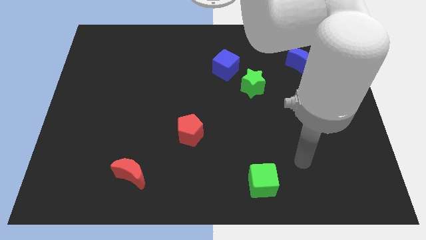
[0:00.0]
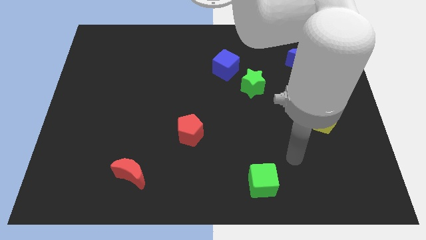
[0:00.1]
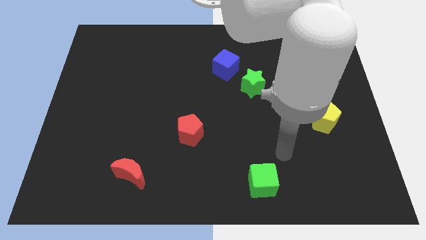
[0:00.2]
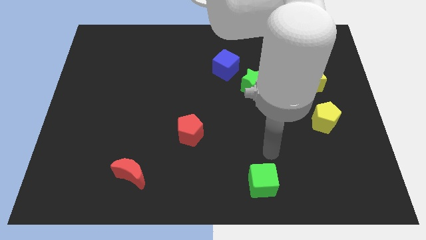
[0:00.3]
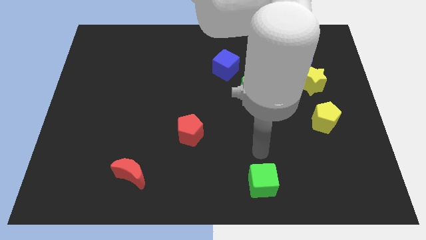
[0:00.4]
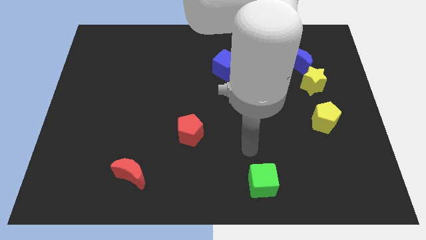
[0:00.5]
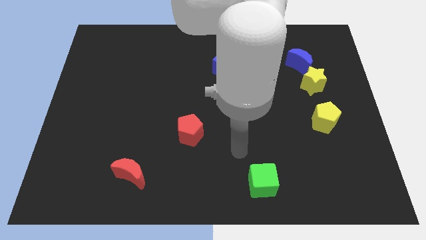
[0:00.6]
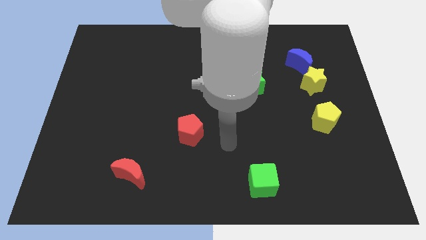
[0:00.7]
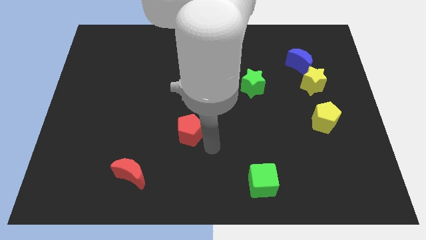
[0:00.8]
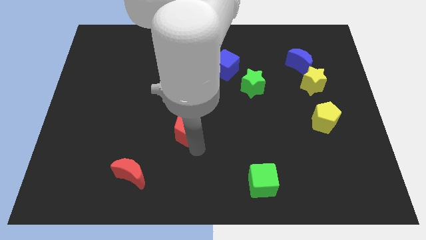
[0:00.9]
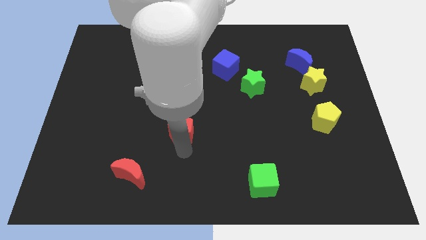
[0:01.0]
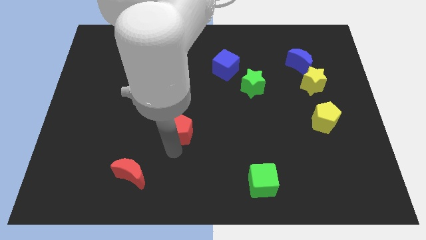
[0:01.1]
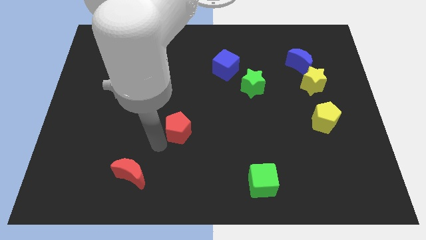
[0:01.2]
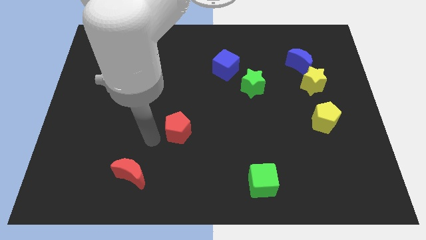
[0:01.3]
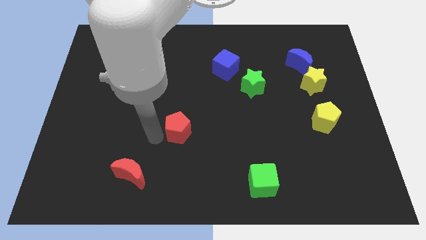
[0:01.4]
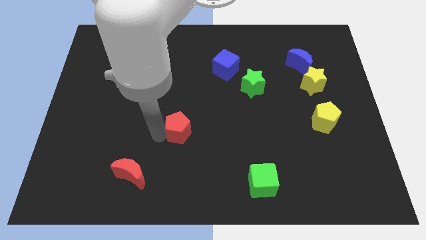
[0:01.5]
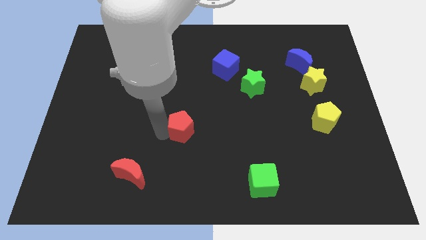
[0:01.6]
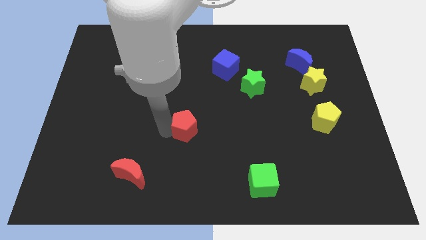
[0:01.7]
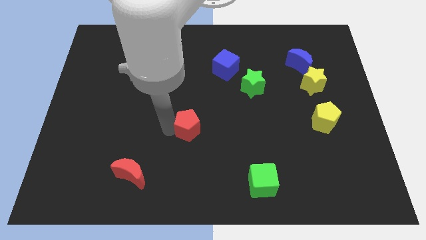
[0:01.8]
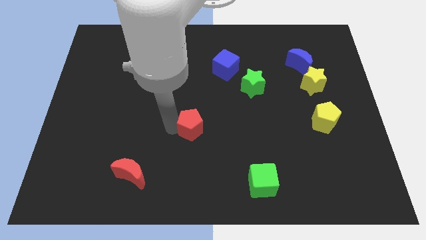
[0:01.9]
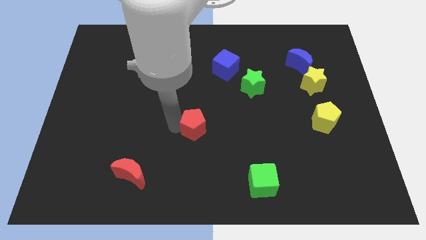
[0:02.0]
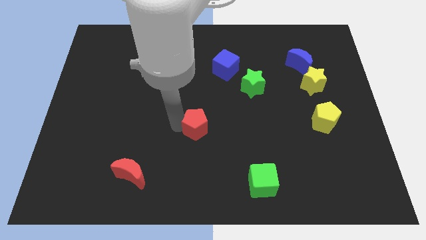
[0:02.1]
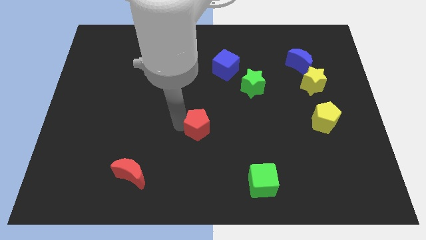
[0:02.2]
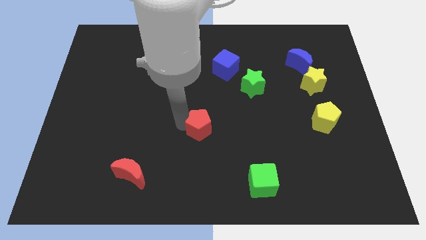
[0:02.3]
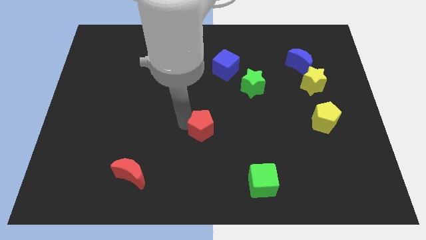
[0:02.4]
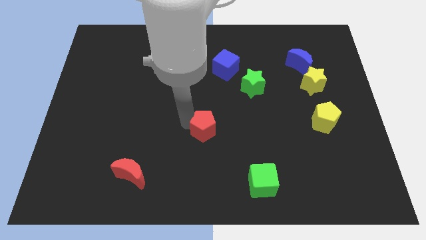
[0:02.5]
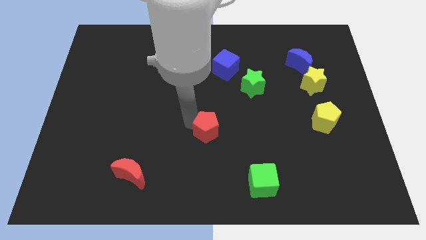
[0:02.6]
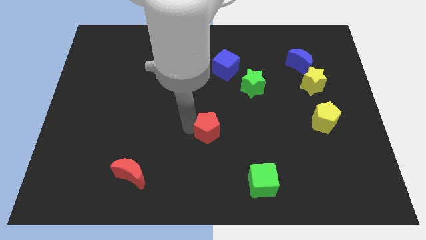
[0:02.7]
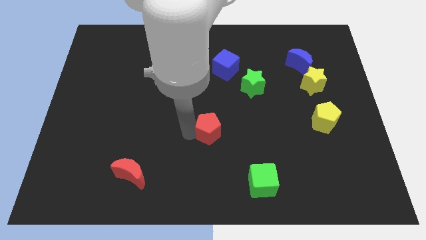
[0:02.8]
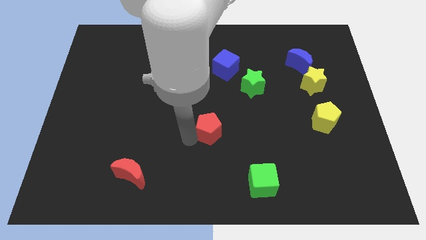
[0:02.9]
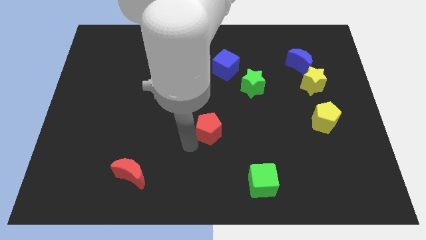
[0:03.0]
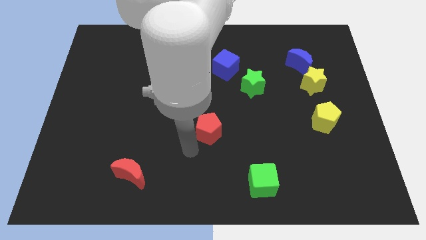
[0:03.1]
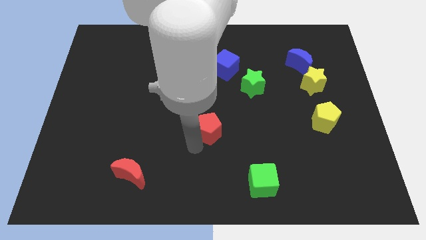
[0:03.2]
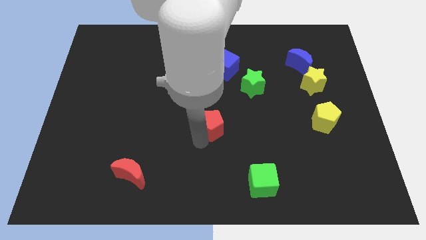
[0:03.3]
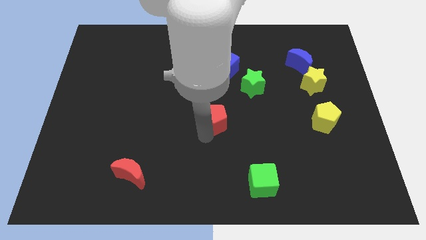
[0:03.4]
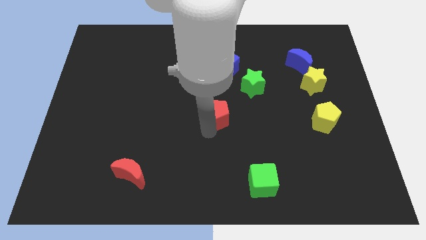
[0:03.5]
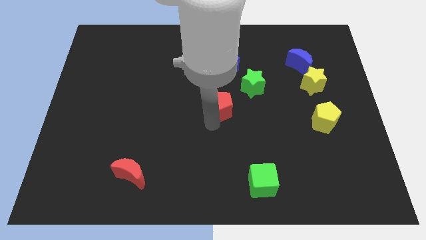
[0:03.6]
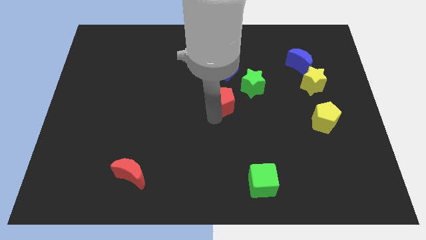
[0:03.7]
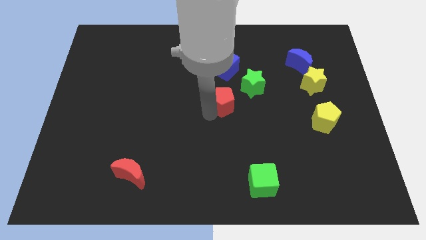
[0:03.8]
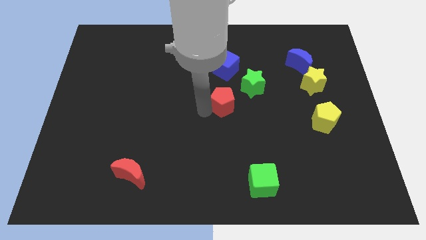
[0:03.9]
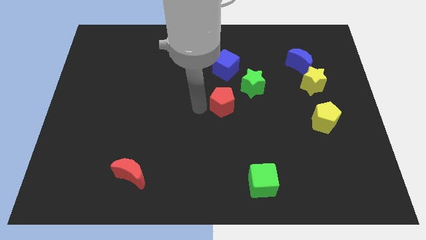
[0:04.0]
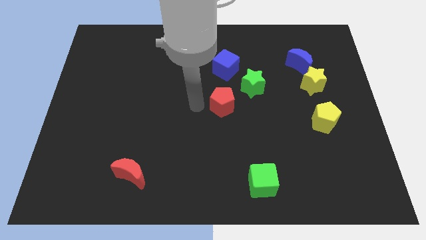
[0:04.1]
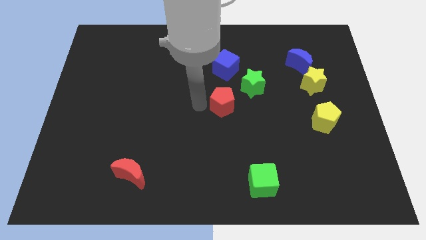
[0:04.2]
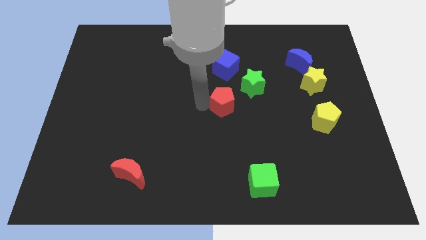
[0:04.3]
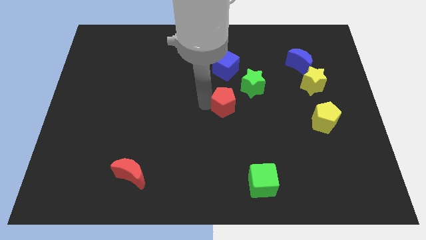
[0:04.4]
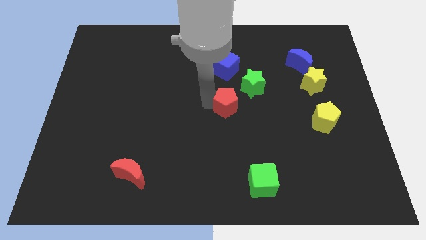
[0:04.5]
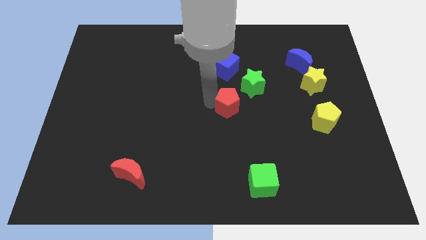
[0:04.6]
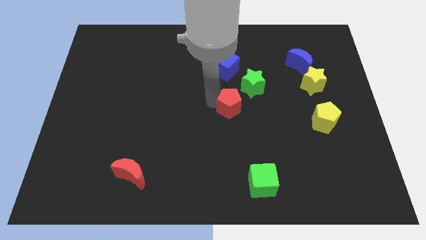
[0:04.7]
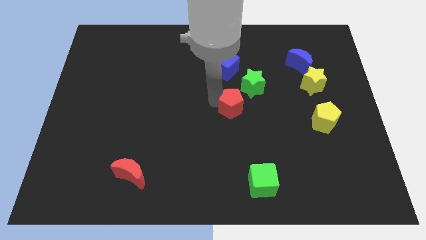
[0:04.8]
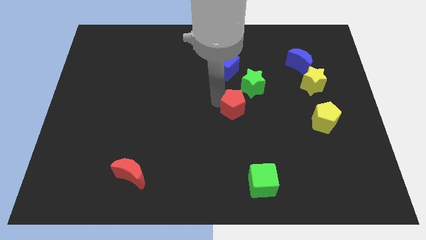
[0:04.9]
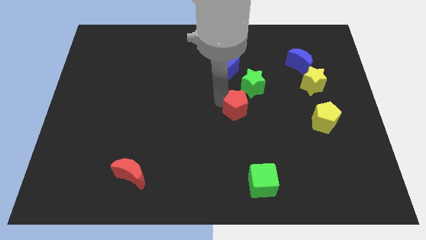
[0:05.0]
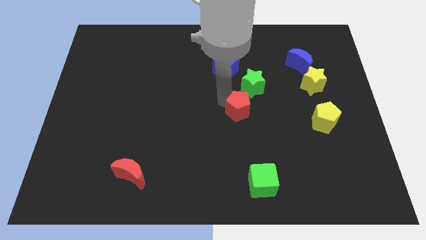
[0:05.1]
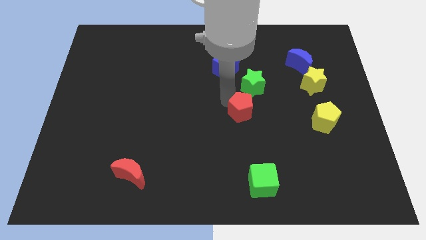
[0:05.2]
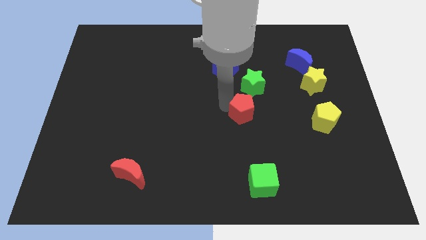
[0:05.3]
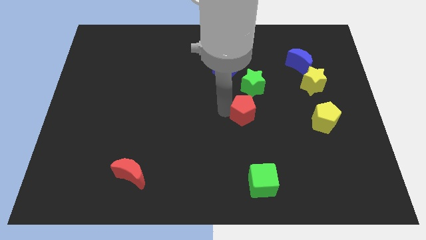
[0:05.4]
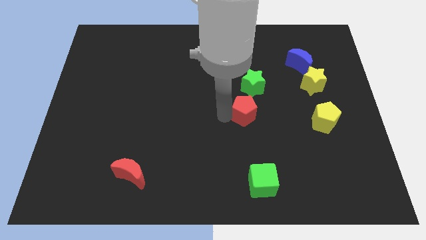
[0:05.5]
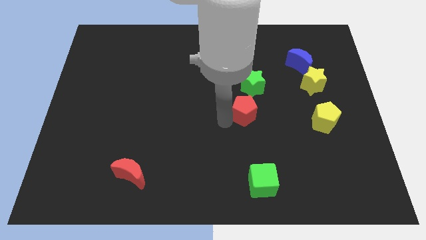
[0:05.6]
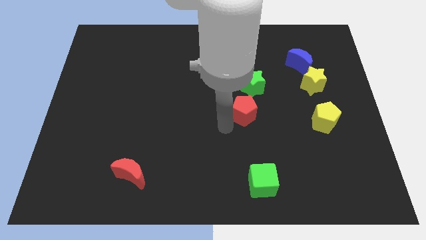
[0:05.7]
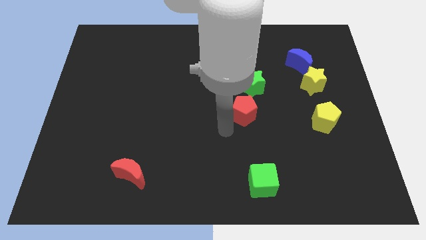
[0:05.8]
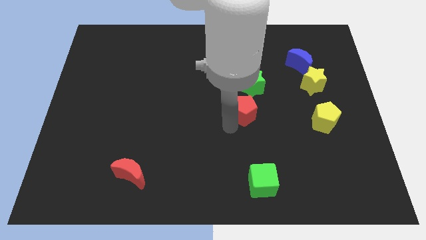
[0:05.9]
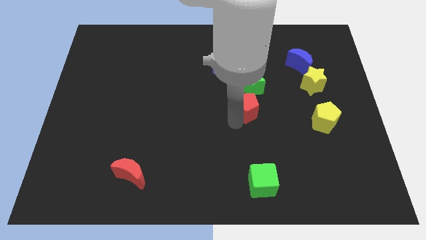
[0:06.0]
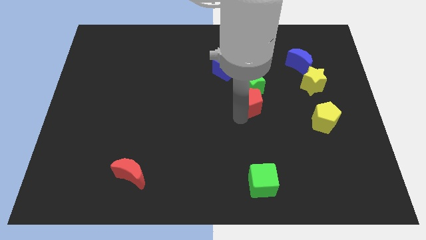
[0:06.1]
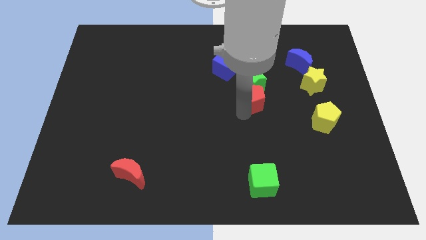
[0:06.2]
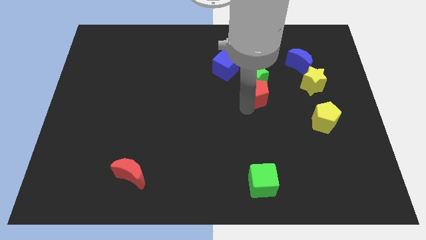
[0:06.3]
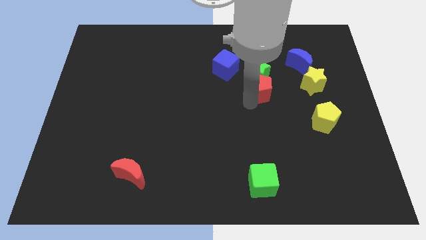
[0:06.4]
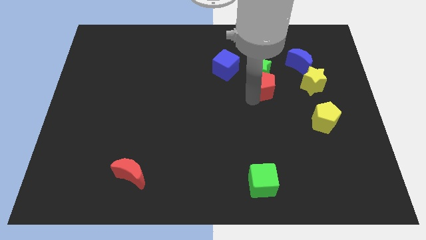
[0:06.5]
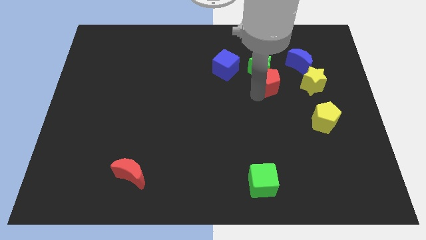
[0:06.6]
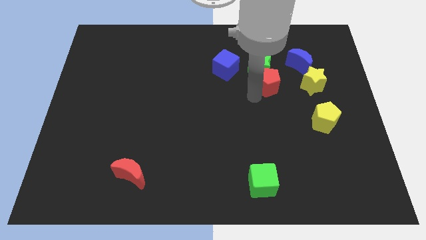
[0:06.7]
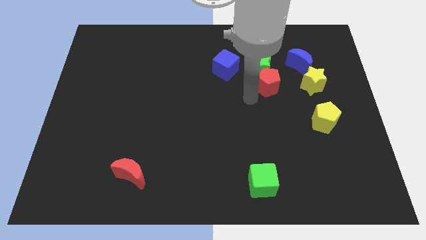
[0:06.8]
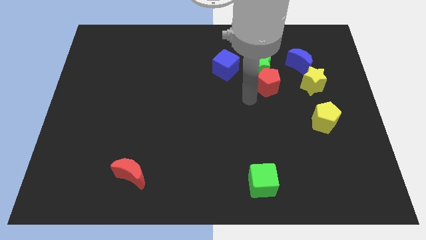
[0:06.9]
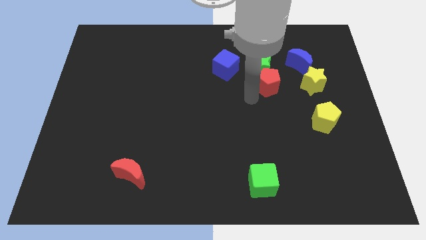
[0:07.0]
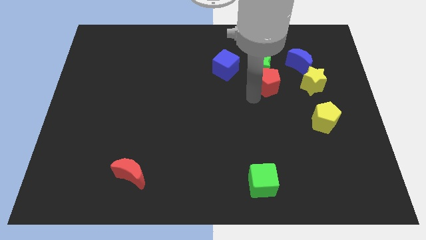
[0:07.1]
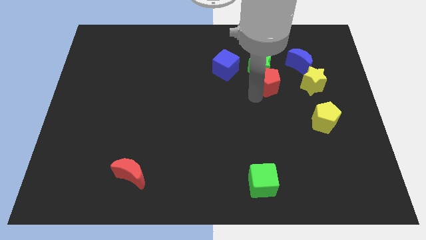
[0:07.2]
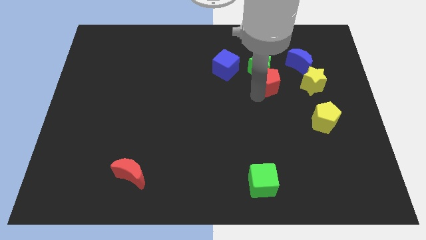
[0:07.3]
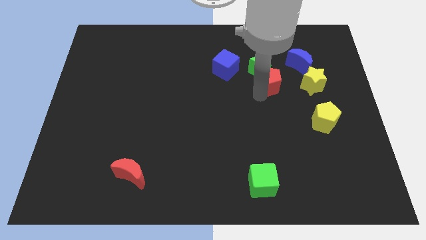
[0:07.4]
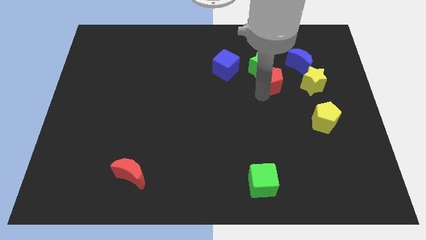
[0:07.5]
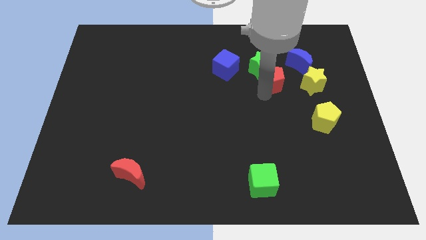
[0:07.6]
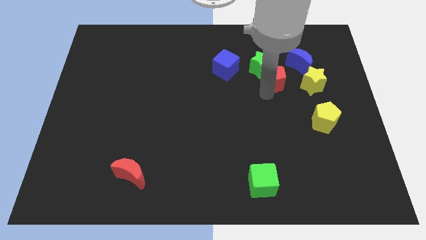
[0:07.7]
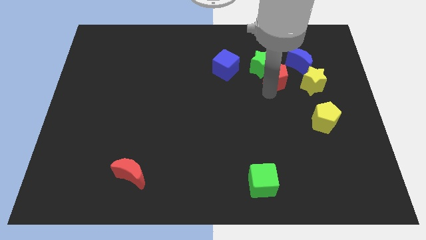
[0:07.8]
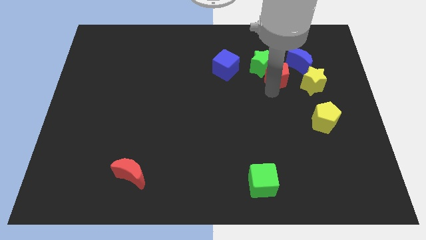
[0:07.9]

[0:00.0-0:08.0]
put the red pentagon diagonally up and to the left of the yellow star
